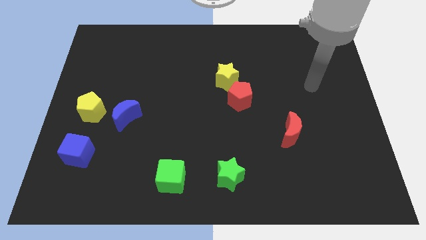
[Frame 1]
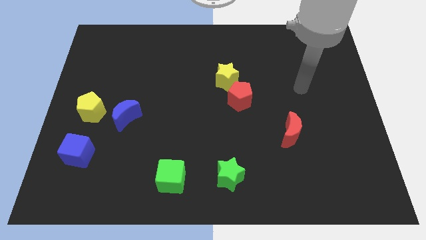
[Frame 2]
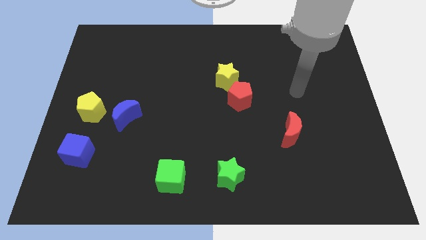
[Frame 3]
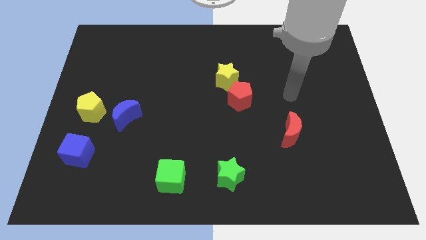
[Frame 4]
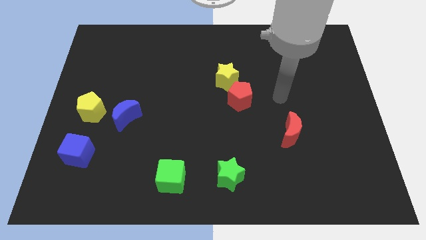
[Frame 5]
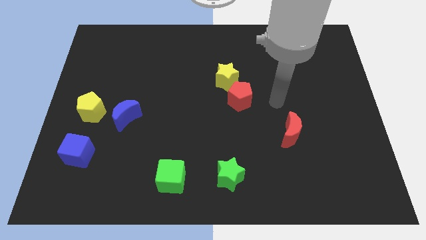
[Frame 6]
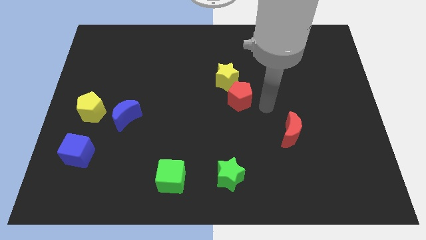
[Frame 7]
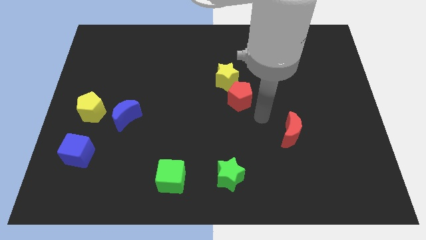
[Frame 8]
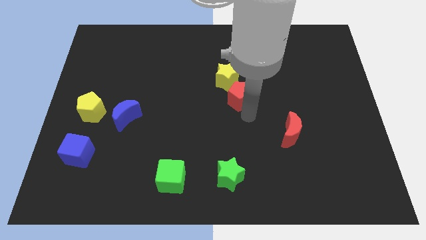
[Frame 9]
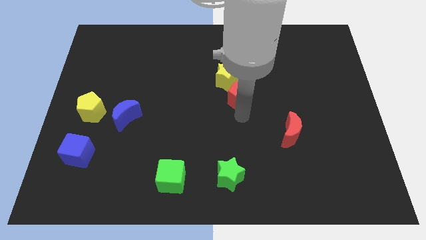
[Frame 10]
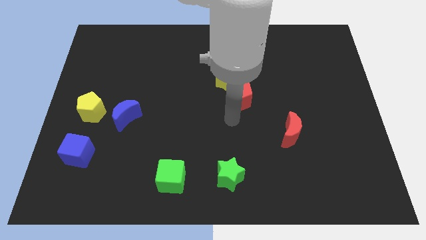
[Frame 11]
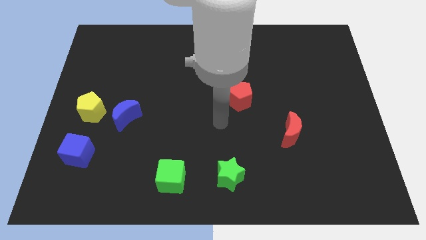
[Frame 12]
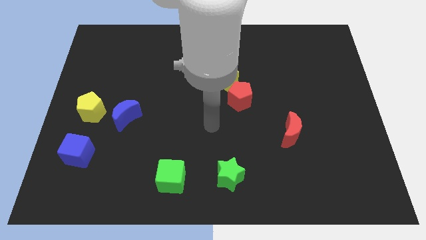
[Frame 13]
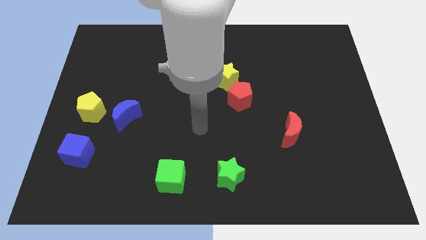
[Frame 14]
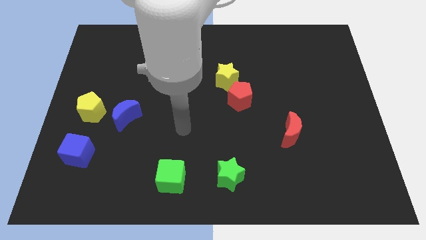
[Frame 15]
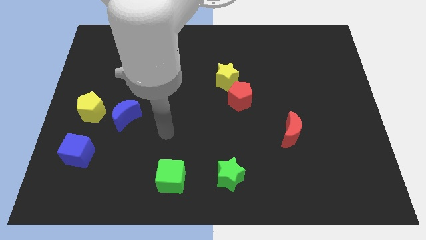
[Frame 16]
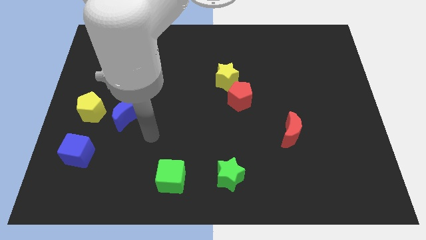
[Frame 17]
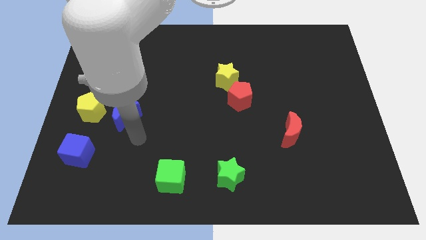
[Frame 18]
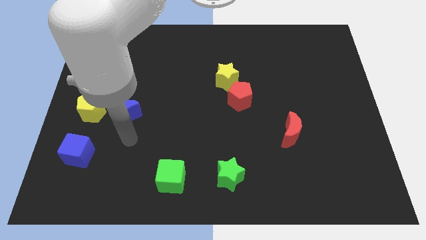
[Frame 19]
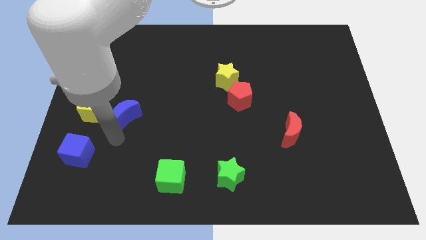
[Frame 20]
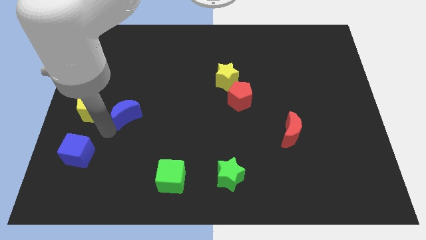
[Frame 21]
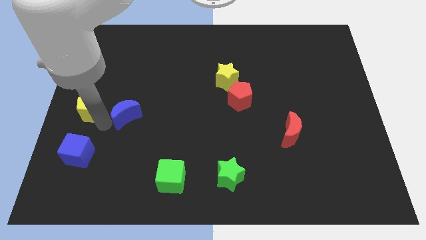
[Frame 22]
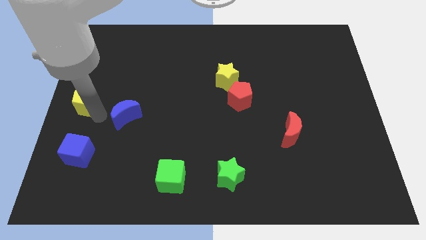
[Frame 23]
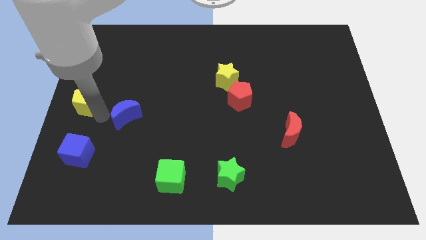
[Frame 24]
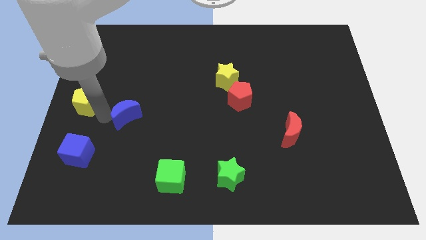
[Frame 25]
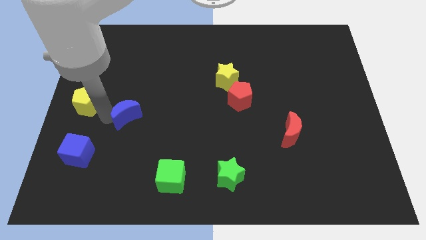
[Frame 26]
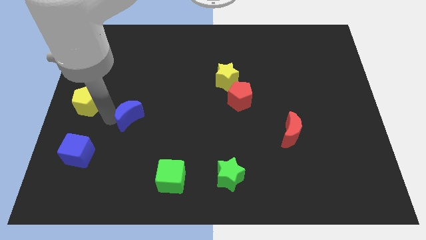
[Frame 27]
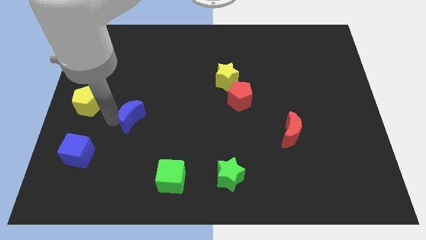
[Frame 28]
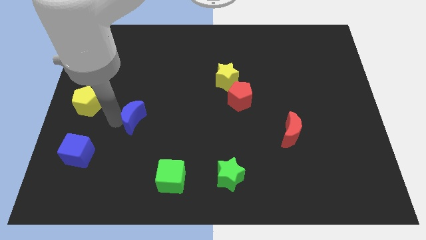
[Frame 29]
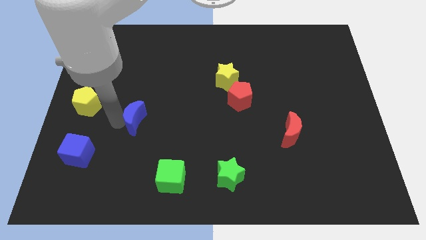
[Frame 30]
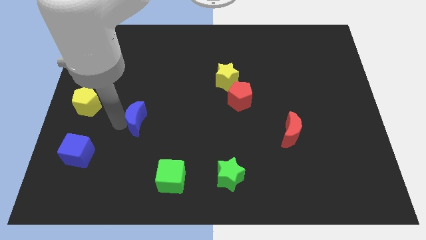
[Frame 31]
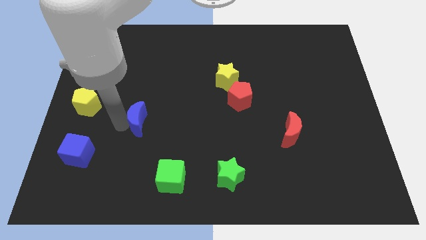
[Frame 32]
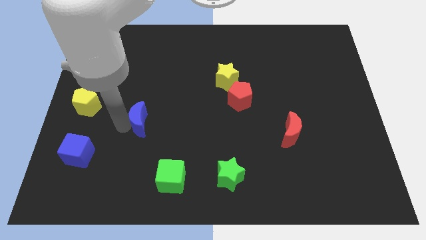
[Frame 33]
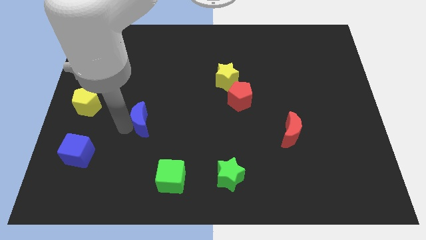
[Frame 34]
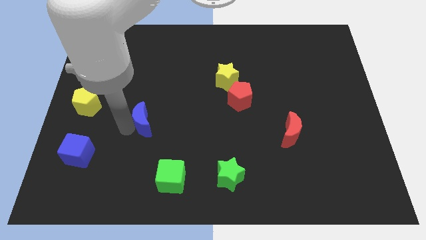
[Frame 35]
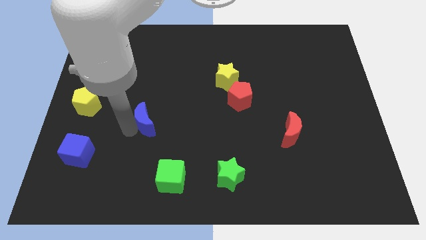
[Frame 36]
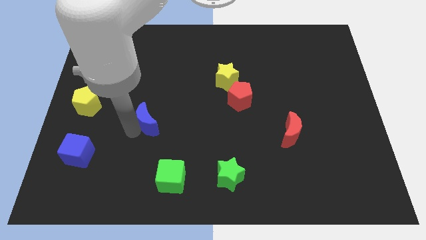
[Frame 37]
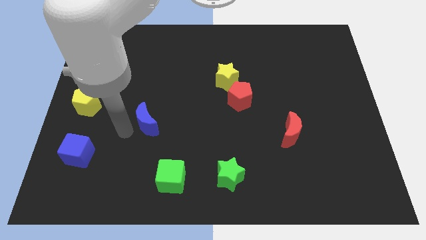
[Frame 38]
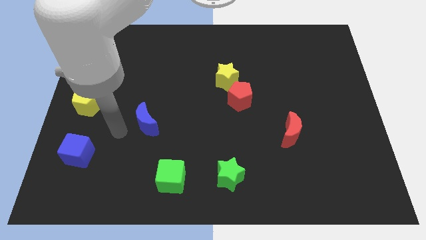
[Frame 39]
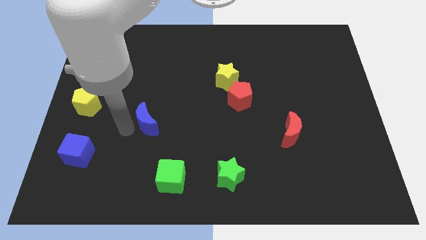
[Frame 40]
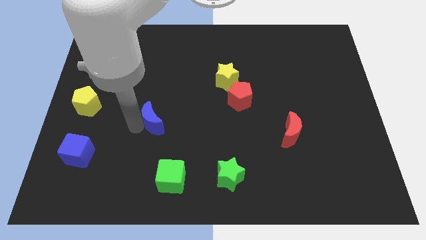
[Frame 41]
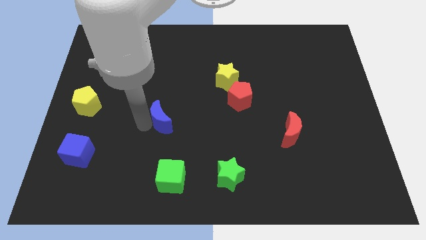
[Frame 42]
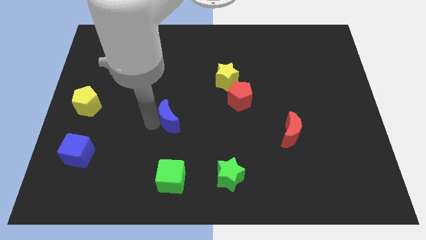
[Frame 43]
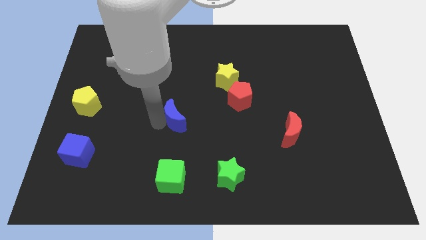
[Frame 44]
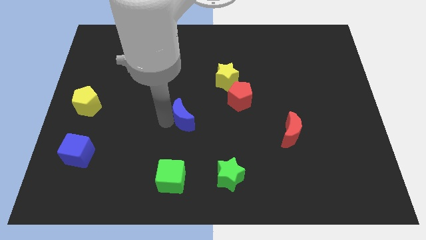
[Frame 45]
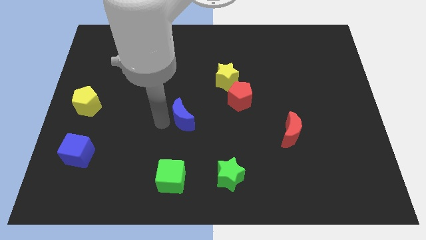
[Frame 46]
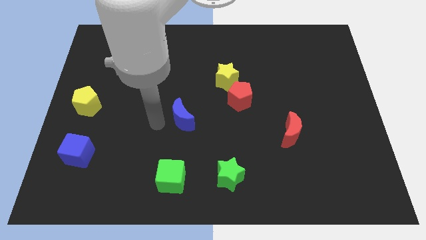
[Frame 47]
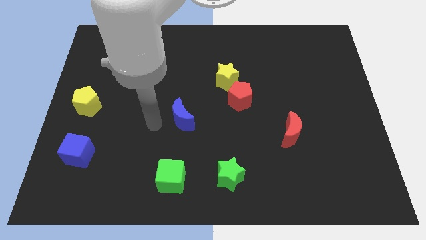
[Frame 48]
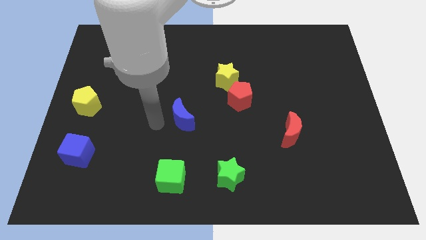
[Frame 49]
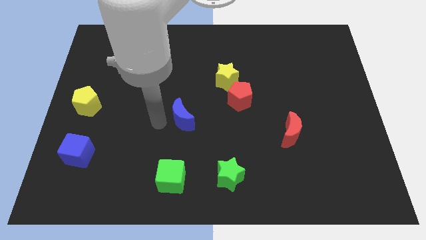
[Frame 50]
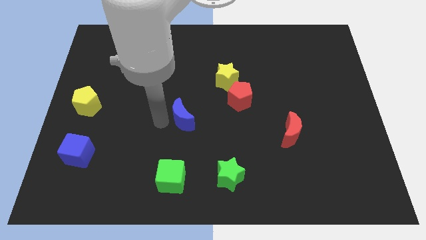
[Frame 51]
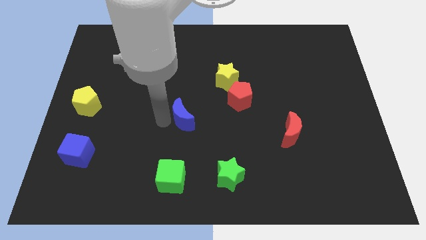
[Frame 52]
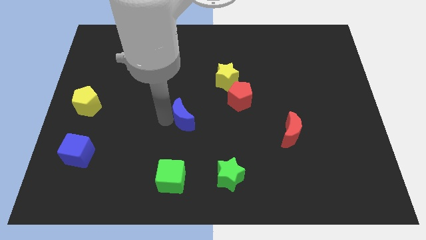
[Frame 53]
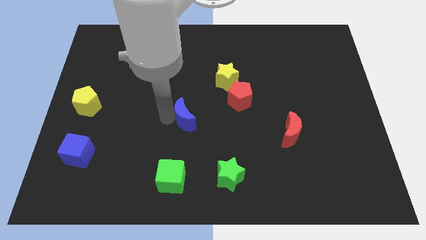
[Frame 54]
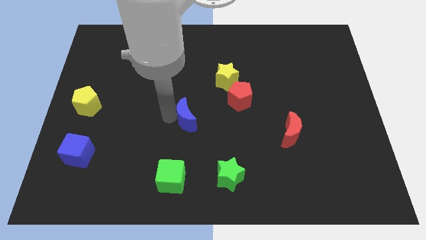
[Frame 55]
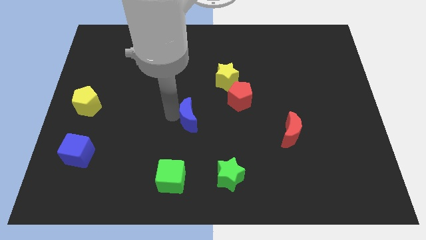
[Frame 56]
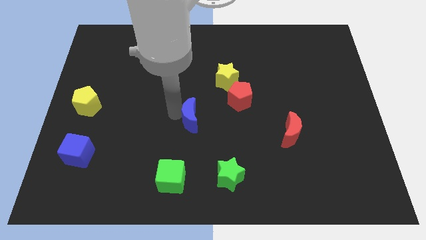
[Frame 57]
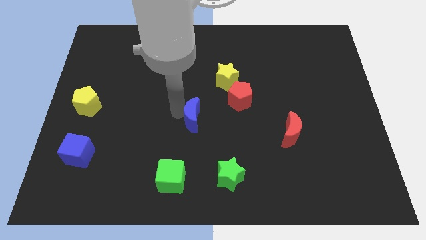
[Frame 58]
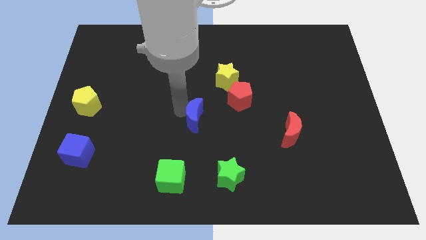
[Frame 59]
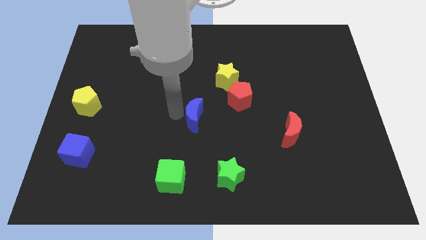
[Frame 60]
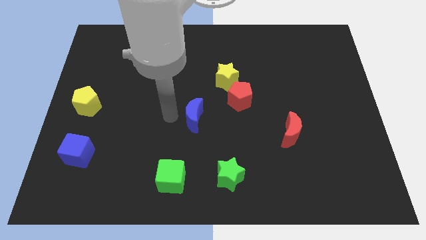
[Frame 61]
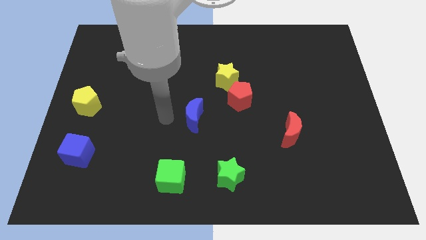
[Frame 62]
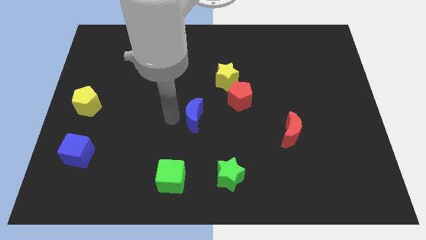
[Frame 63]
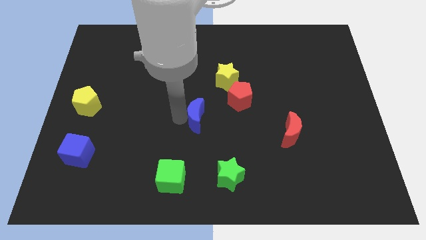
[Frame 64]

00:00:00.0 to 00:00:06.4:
put the blue moon to the bottom left side of the red pentagon

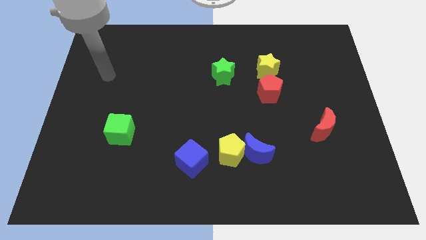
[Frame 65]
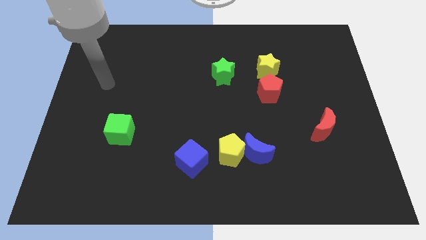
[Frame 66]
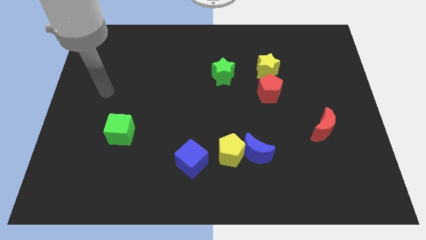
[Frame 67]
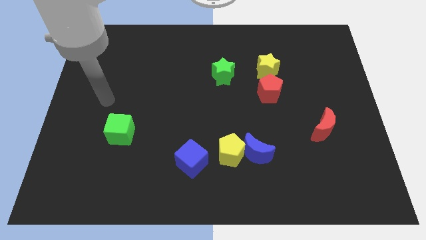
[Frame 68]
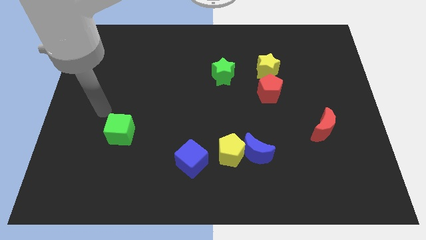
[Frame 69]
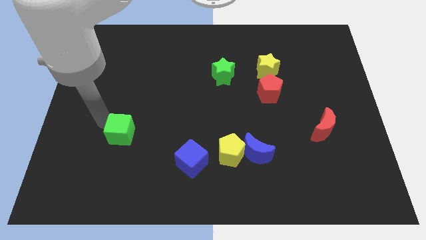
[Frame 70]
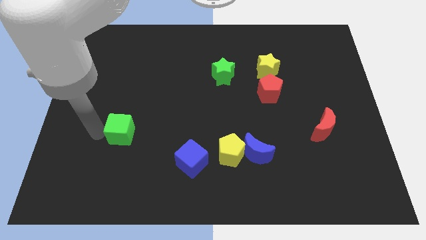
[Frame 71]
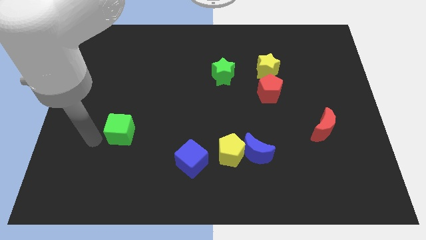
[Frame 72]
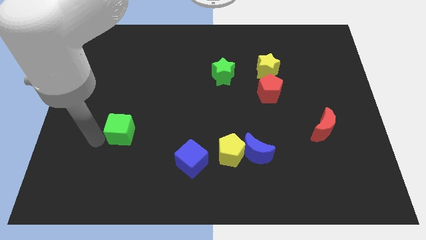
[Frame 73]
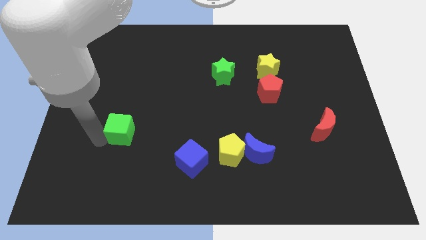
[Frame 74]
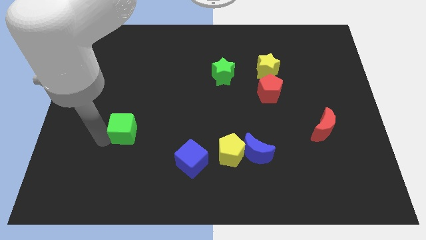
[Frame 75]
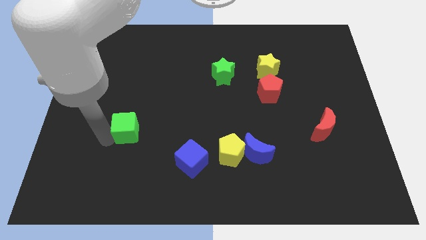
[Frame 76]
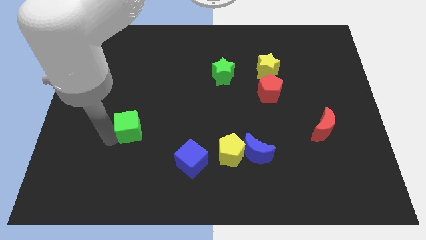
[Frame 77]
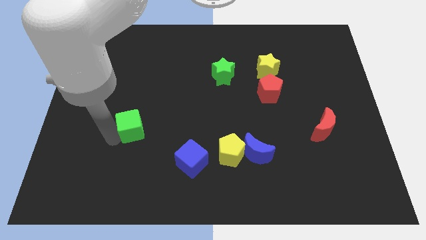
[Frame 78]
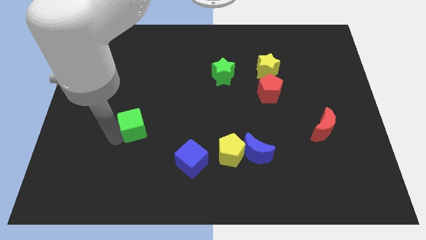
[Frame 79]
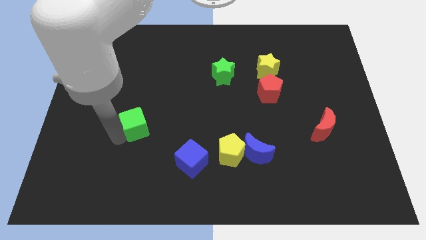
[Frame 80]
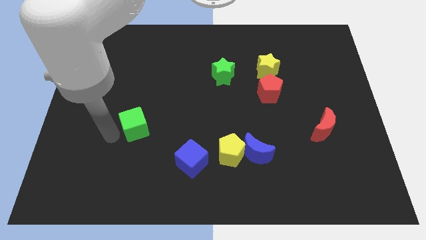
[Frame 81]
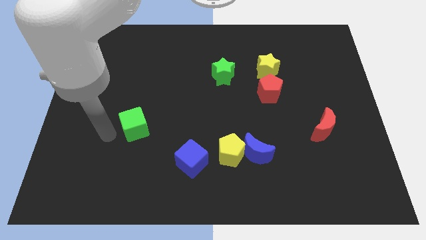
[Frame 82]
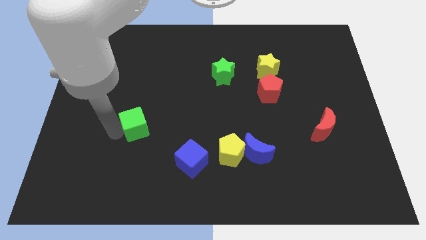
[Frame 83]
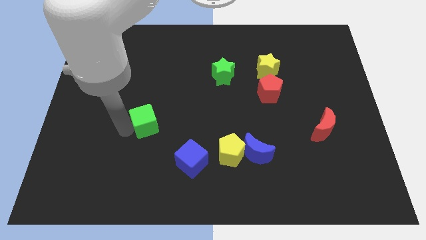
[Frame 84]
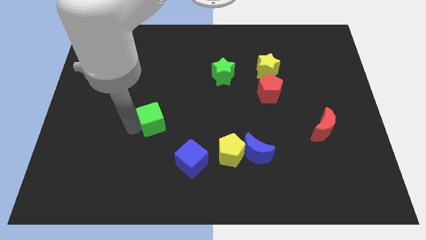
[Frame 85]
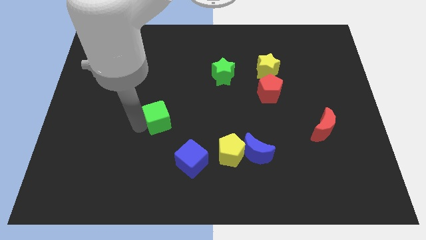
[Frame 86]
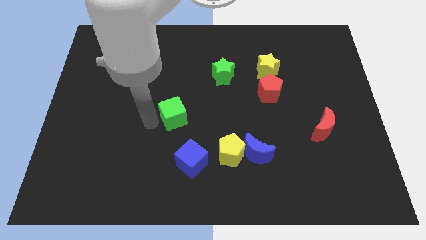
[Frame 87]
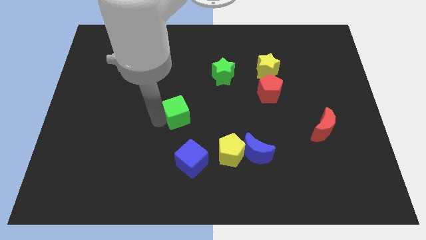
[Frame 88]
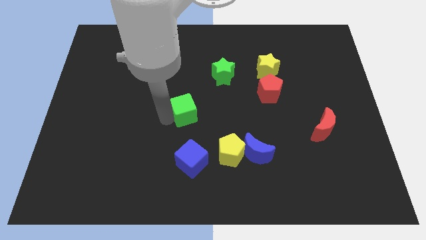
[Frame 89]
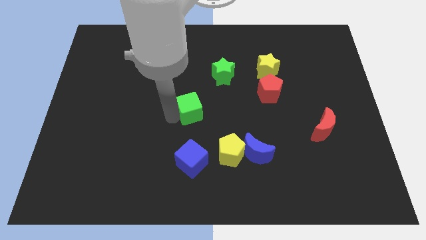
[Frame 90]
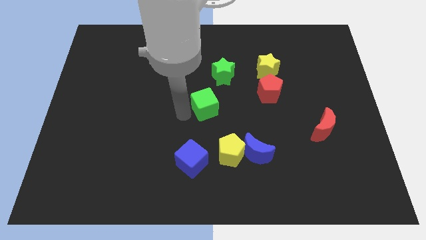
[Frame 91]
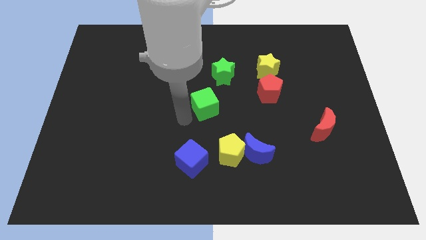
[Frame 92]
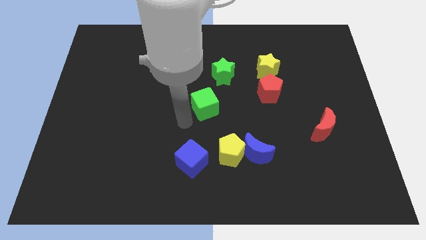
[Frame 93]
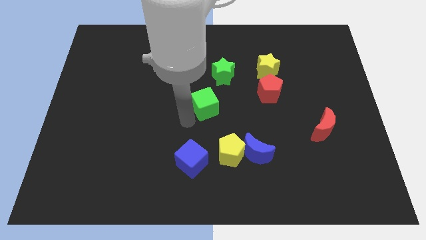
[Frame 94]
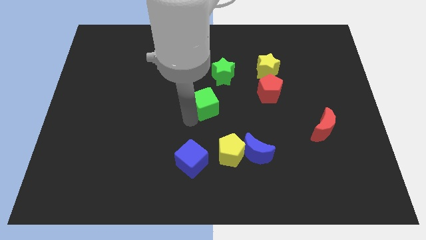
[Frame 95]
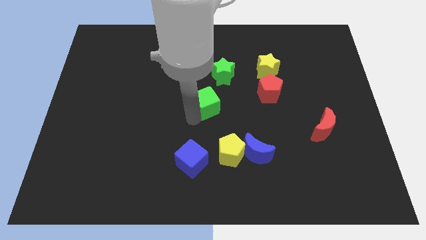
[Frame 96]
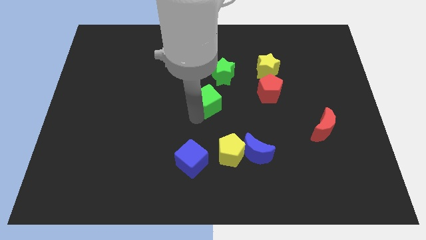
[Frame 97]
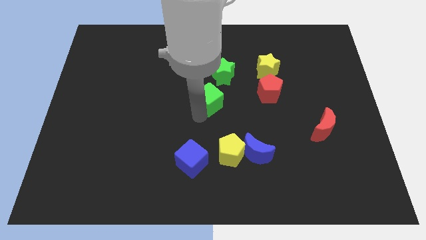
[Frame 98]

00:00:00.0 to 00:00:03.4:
move the green cube left of the red pentagon
